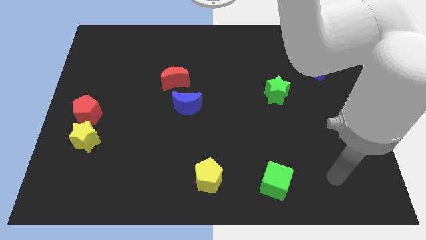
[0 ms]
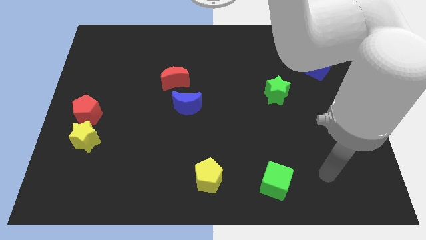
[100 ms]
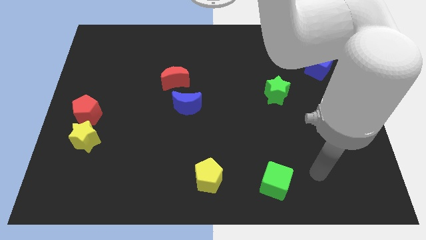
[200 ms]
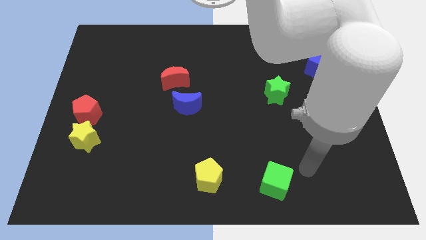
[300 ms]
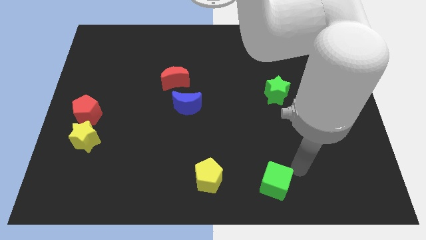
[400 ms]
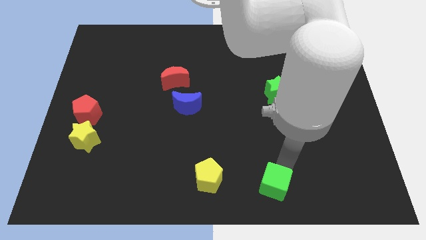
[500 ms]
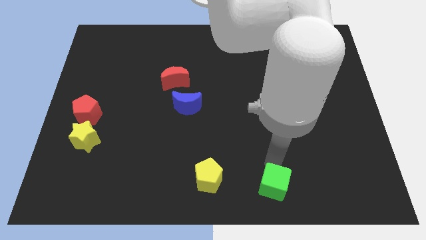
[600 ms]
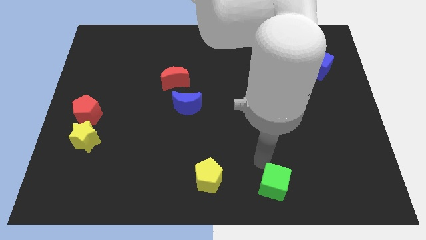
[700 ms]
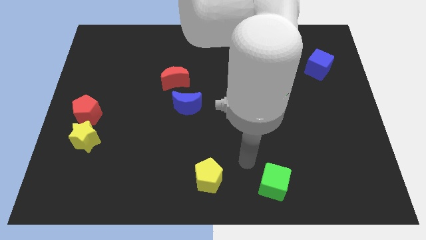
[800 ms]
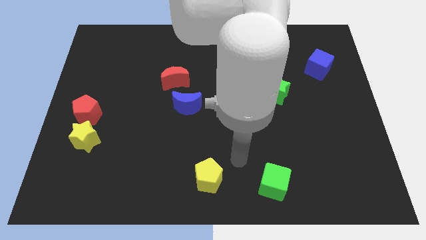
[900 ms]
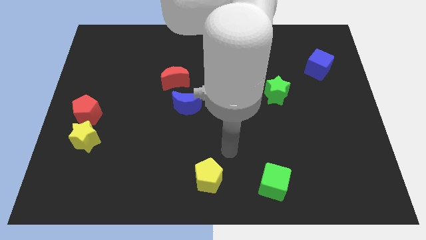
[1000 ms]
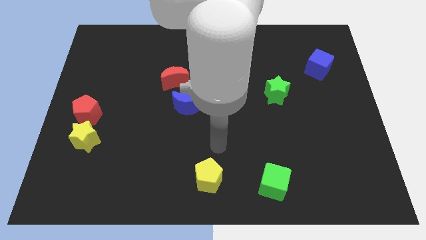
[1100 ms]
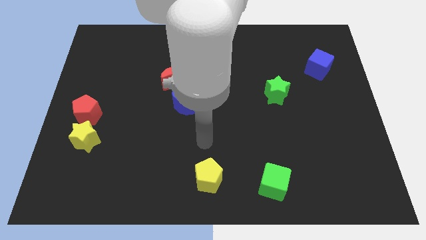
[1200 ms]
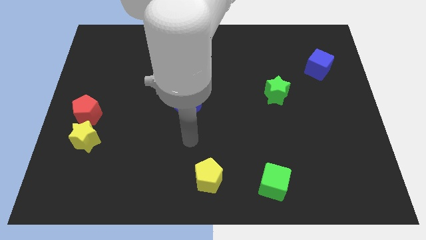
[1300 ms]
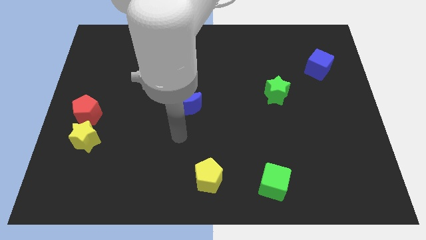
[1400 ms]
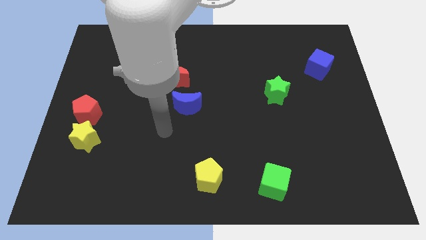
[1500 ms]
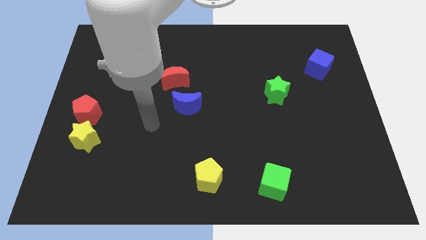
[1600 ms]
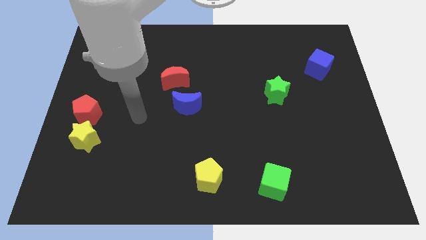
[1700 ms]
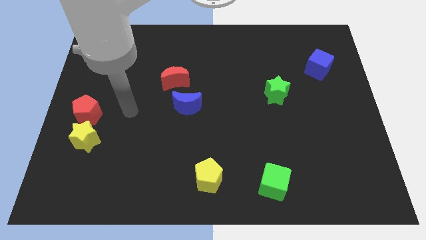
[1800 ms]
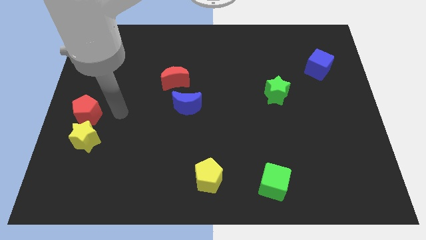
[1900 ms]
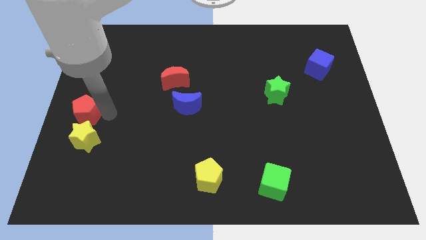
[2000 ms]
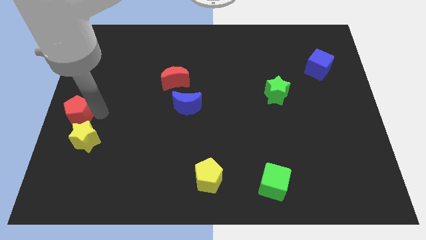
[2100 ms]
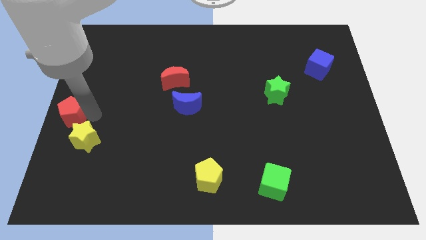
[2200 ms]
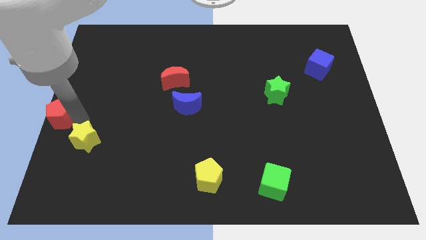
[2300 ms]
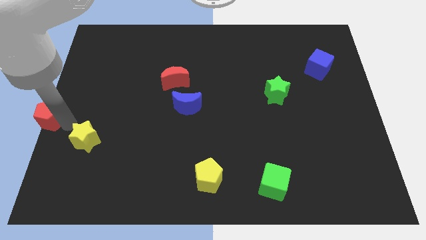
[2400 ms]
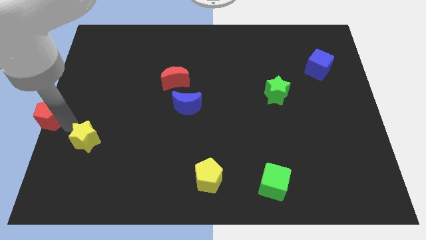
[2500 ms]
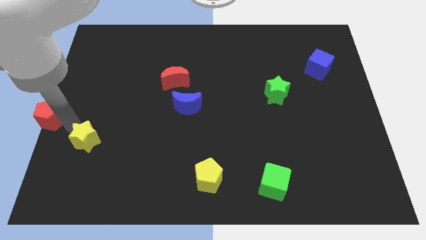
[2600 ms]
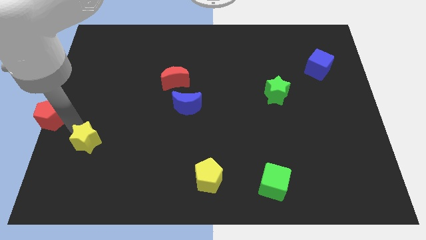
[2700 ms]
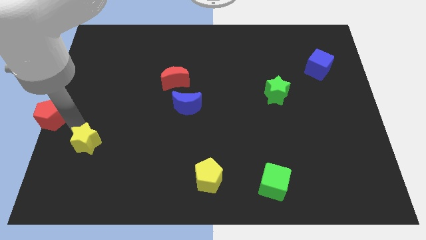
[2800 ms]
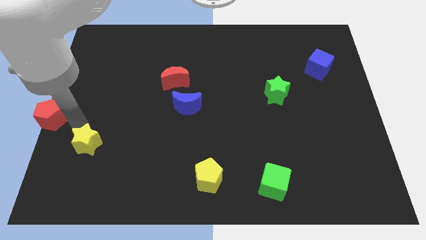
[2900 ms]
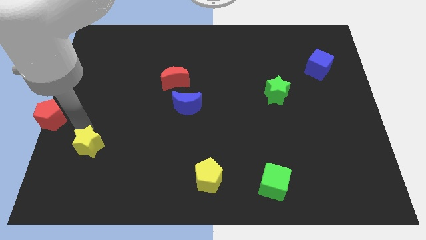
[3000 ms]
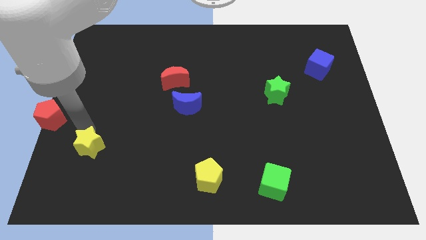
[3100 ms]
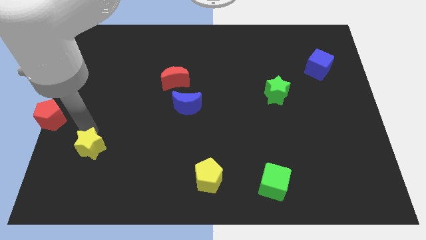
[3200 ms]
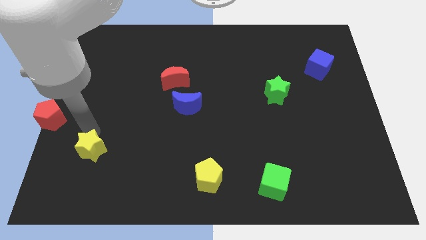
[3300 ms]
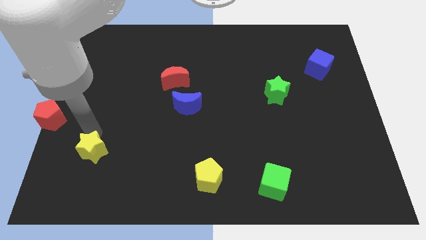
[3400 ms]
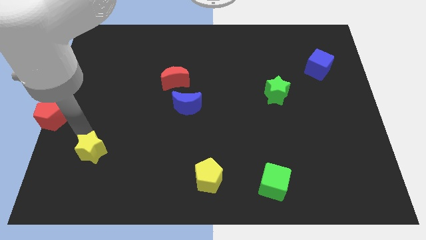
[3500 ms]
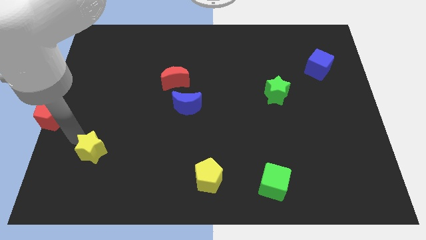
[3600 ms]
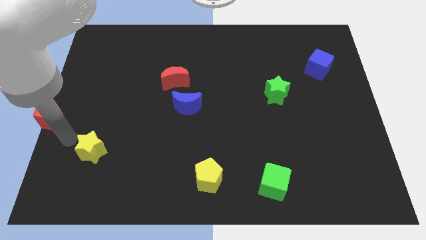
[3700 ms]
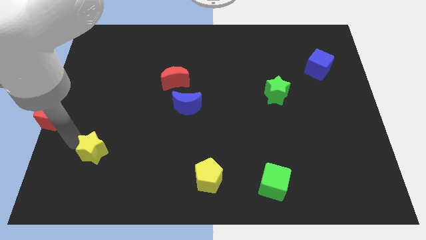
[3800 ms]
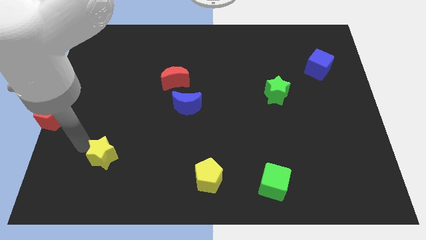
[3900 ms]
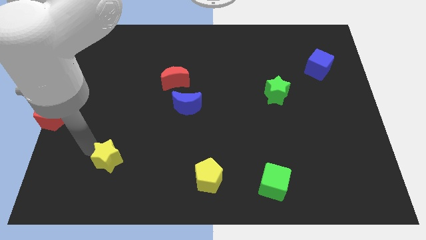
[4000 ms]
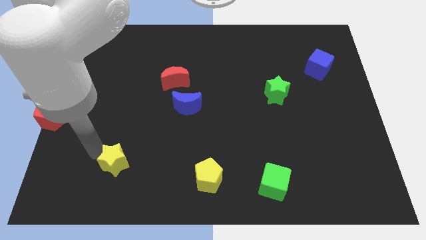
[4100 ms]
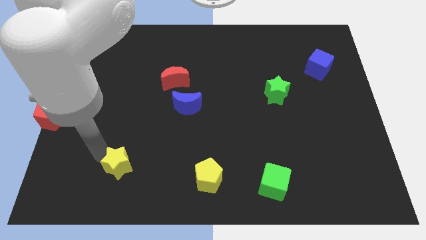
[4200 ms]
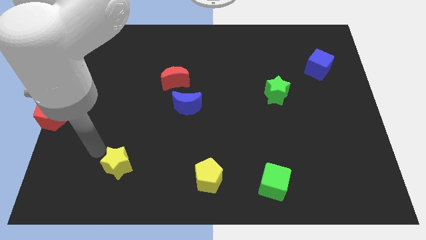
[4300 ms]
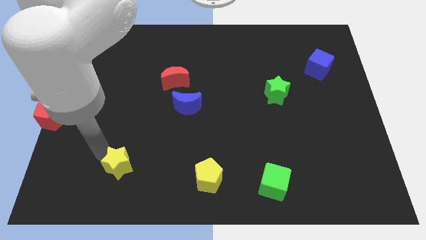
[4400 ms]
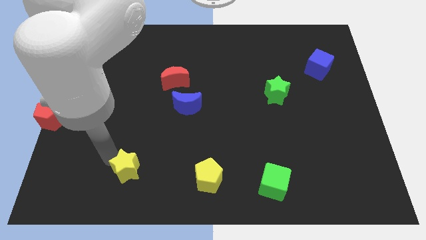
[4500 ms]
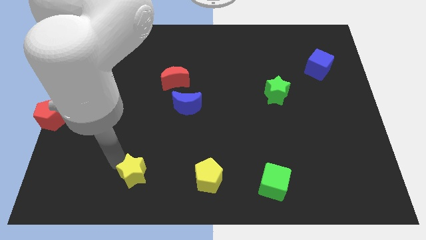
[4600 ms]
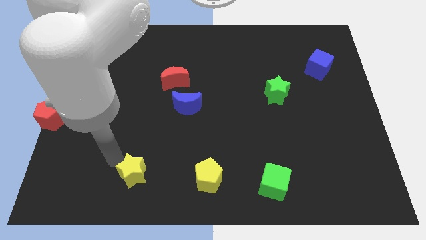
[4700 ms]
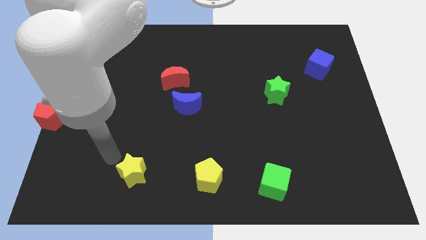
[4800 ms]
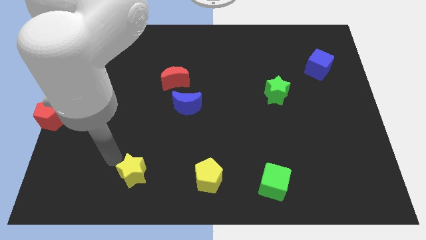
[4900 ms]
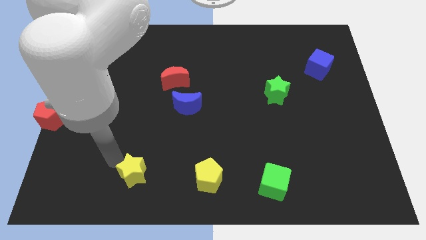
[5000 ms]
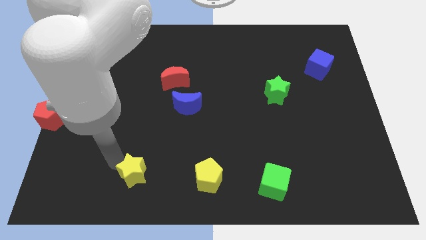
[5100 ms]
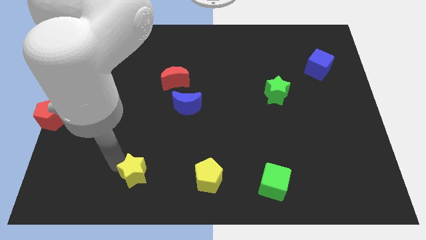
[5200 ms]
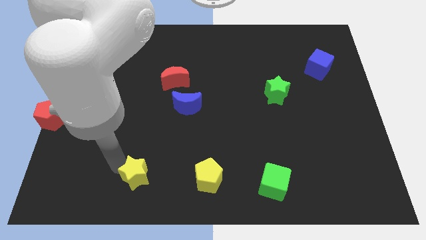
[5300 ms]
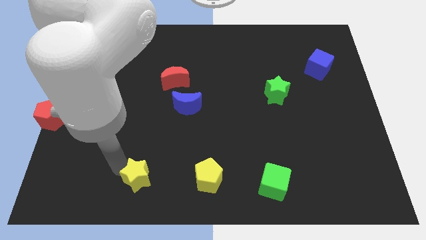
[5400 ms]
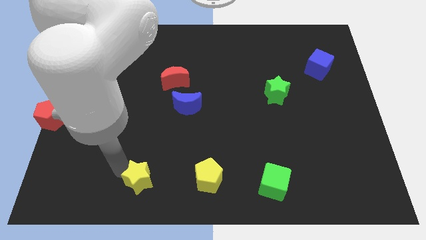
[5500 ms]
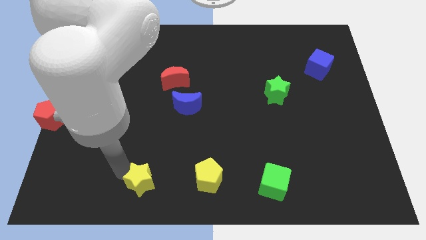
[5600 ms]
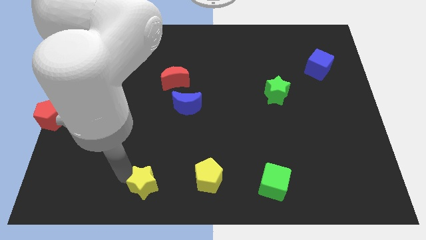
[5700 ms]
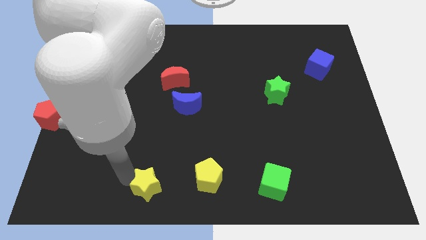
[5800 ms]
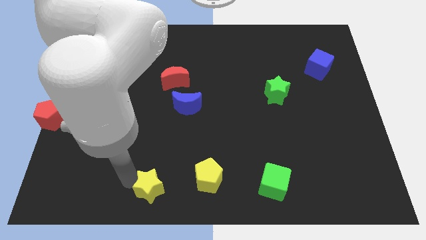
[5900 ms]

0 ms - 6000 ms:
slide the yellow star to the bottom side

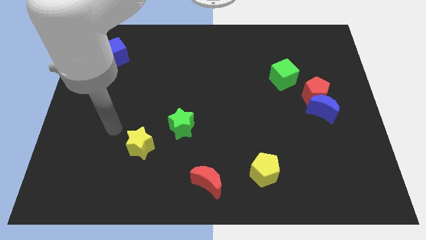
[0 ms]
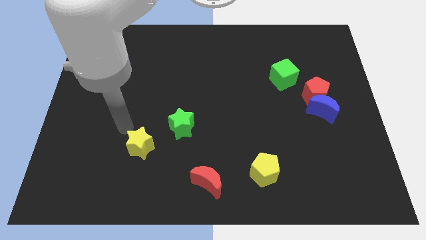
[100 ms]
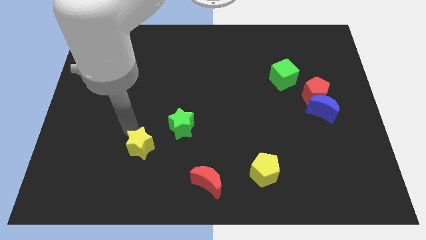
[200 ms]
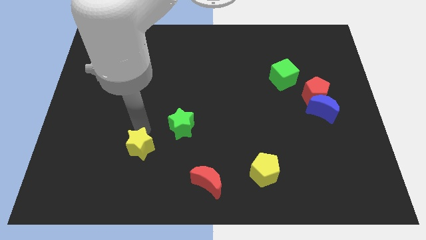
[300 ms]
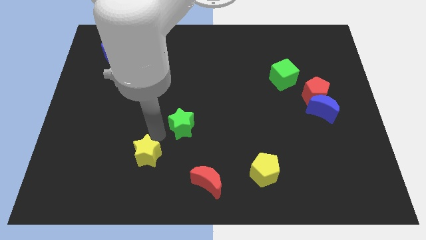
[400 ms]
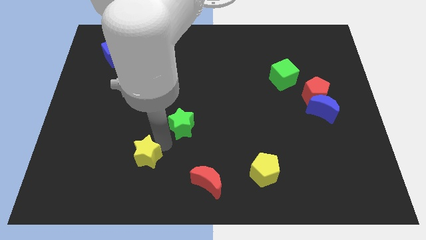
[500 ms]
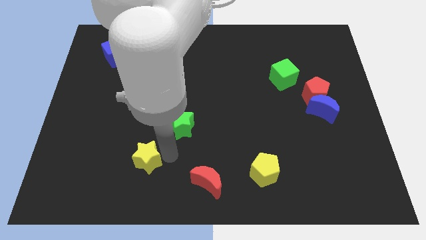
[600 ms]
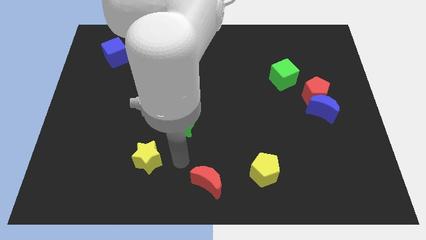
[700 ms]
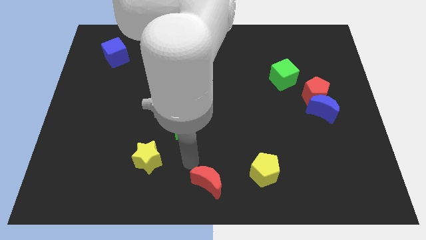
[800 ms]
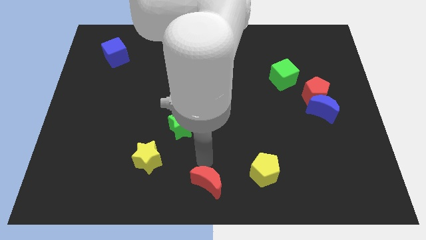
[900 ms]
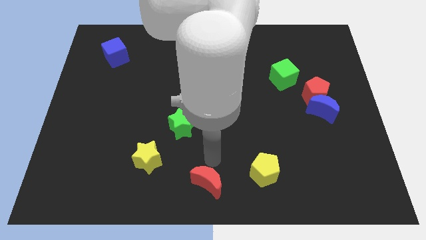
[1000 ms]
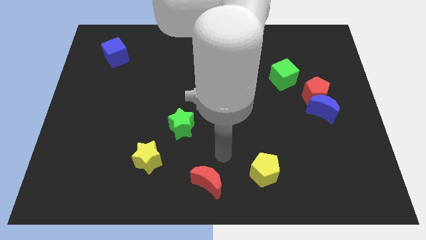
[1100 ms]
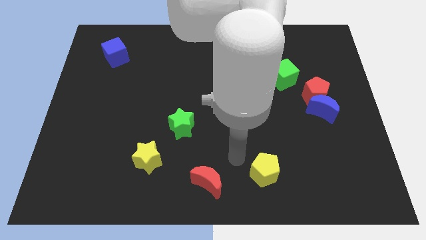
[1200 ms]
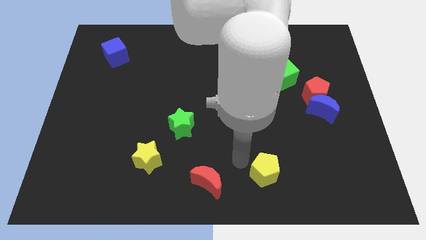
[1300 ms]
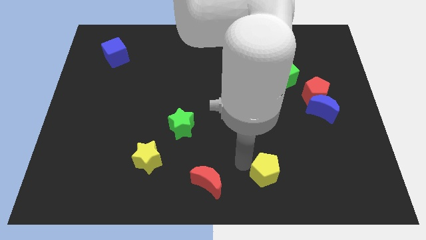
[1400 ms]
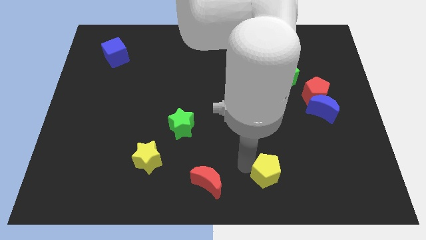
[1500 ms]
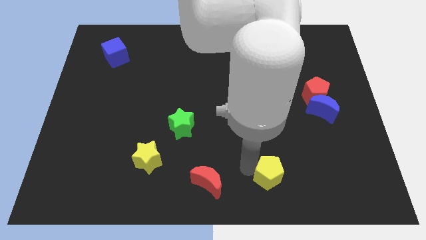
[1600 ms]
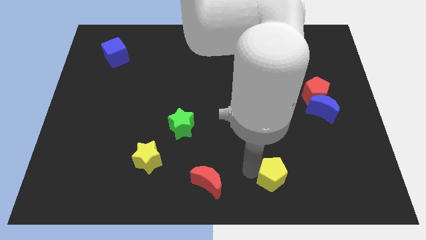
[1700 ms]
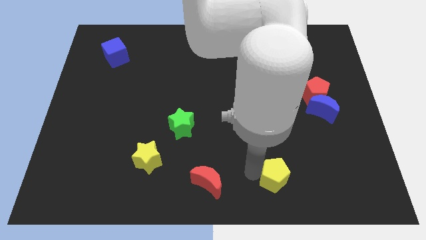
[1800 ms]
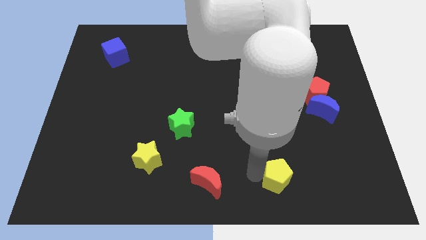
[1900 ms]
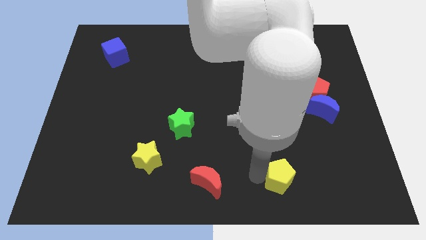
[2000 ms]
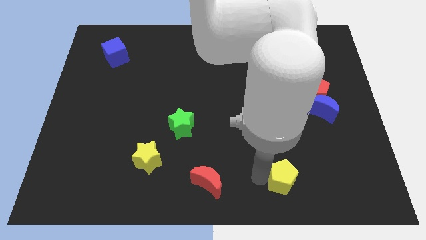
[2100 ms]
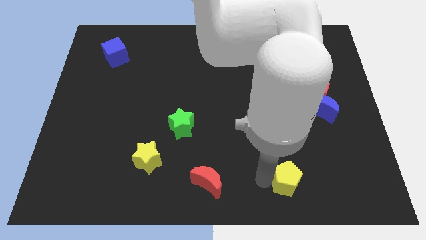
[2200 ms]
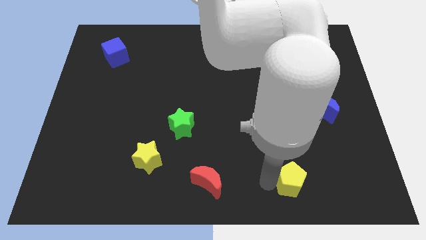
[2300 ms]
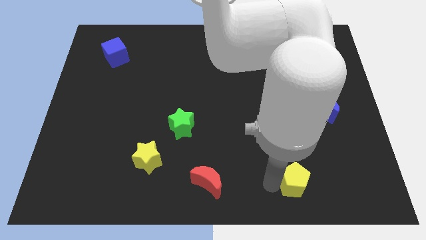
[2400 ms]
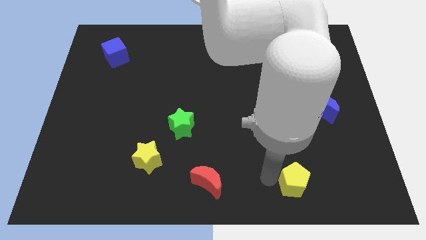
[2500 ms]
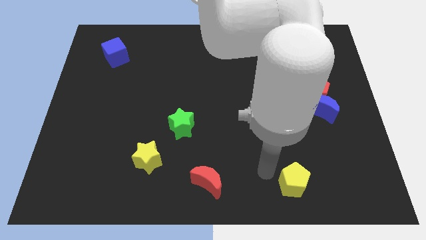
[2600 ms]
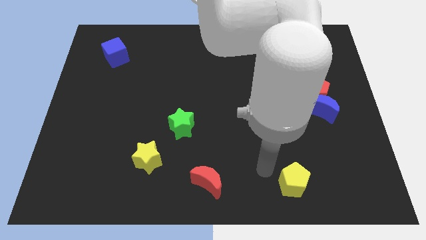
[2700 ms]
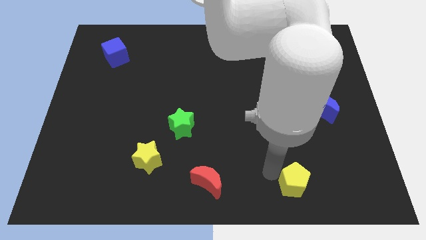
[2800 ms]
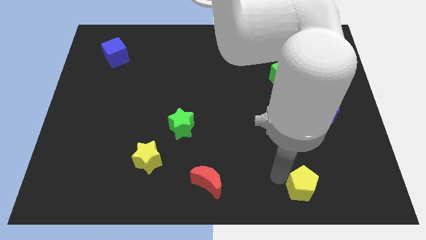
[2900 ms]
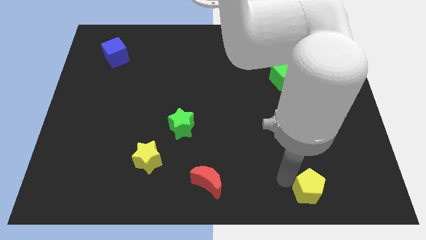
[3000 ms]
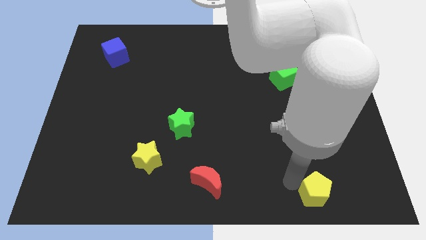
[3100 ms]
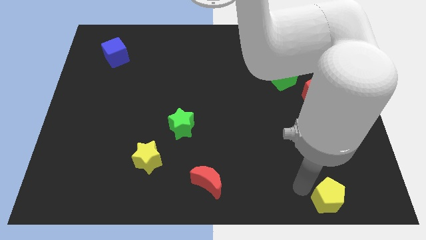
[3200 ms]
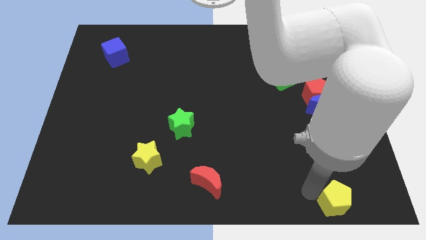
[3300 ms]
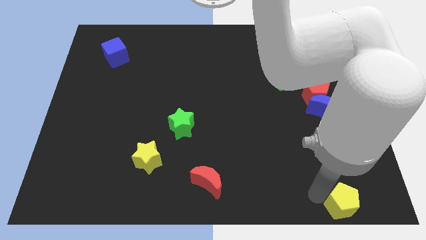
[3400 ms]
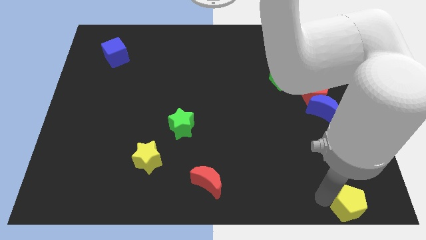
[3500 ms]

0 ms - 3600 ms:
put the yellow pentagon to the bottom right corner
